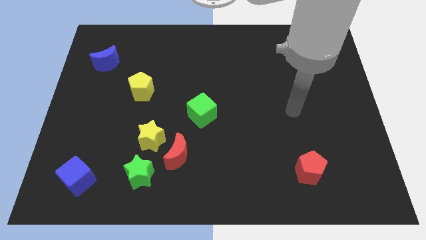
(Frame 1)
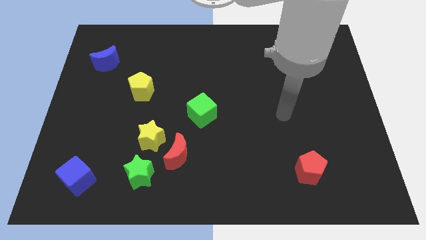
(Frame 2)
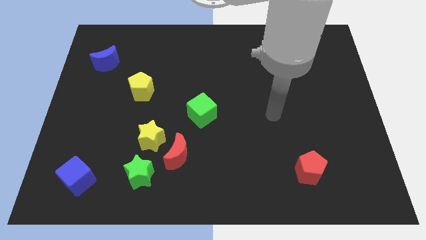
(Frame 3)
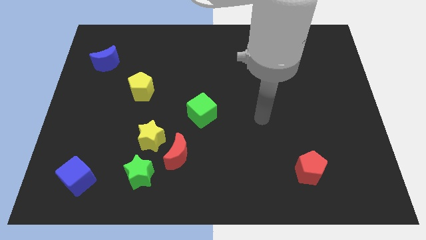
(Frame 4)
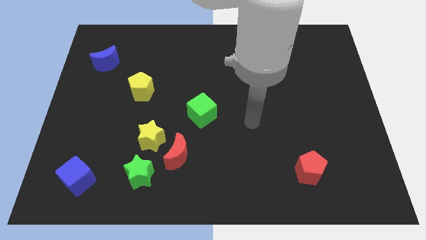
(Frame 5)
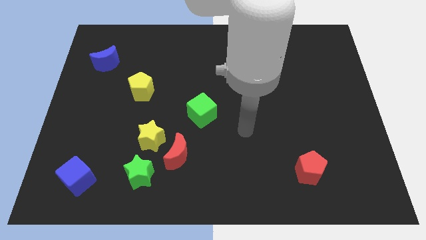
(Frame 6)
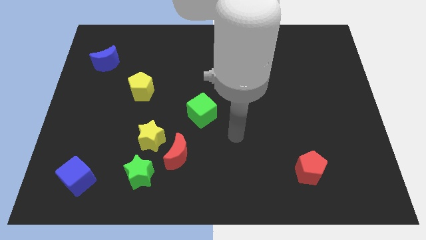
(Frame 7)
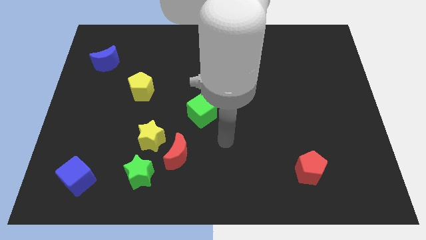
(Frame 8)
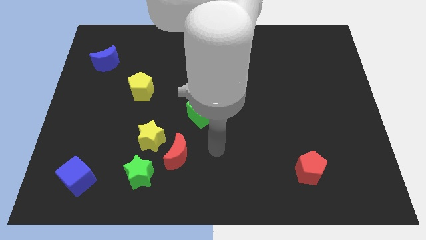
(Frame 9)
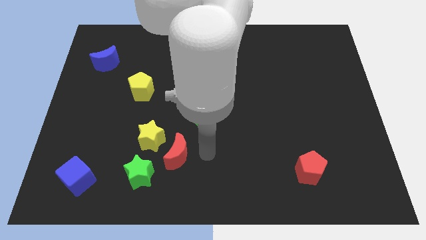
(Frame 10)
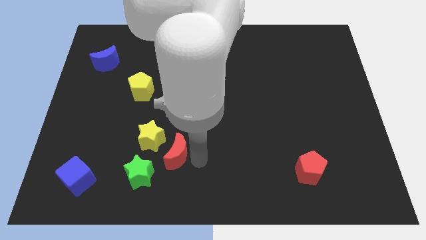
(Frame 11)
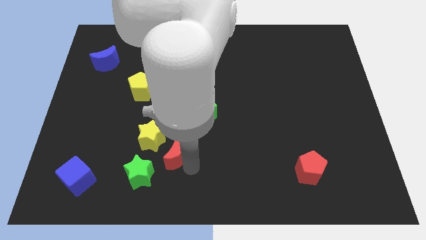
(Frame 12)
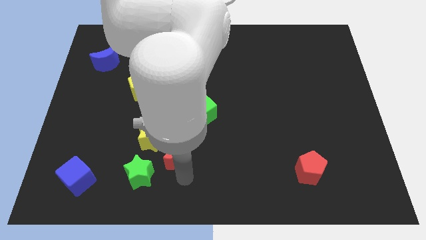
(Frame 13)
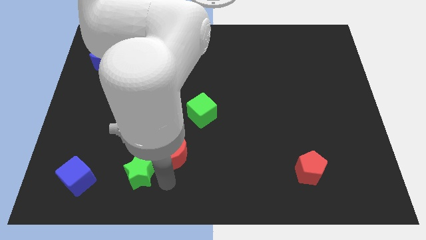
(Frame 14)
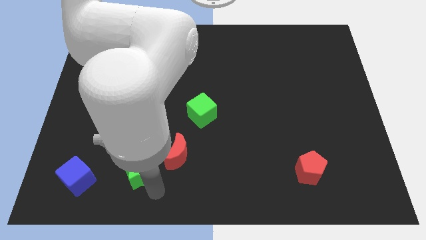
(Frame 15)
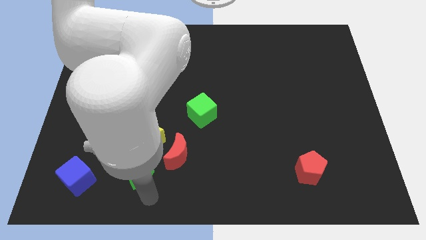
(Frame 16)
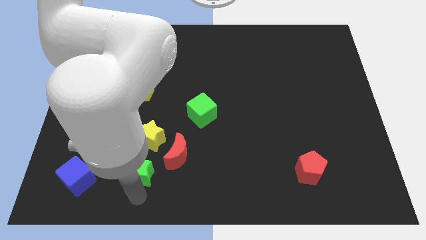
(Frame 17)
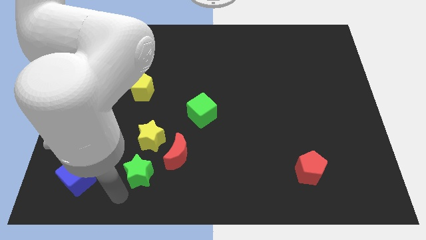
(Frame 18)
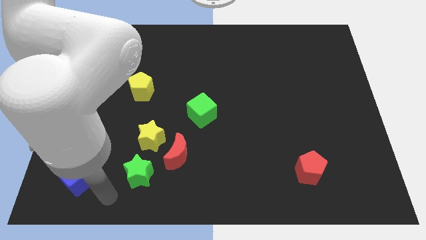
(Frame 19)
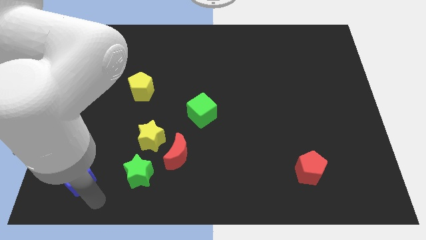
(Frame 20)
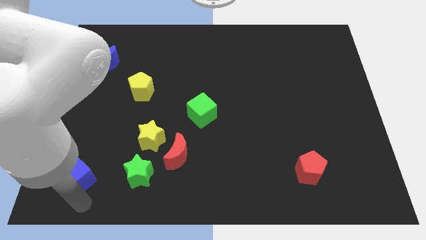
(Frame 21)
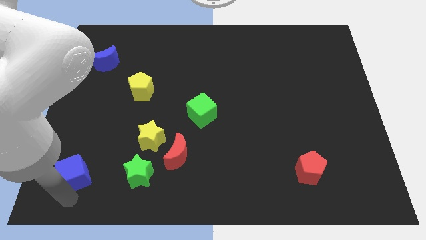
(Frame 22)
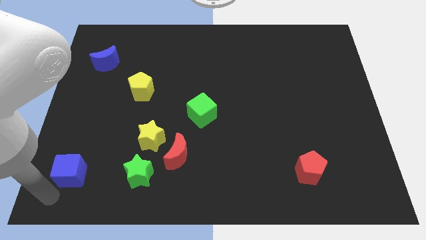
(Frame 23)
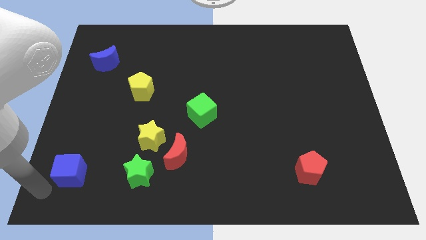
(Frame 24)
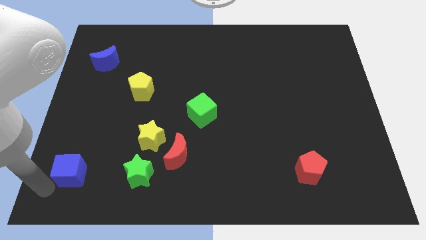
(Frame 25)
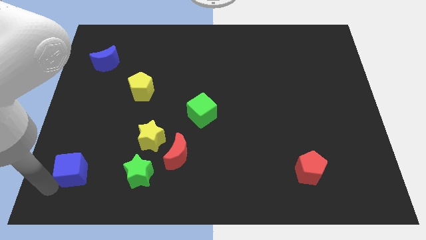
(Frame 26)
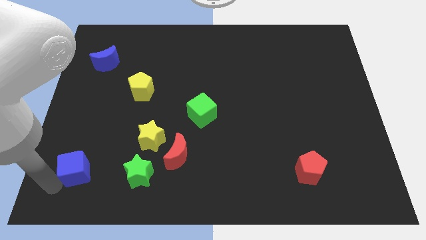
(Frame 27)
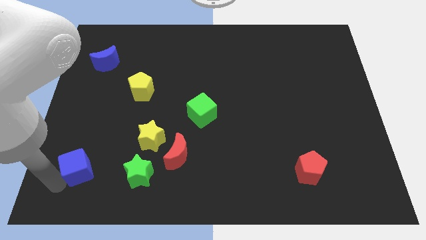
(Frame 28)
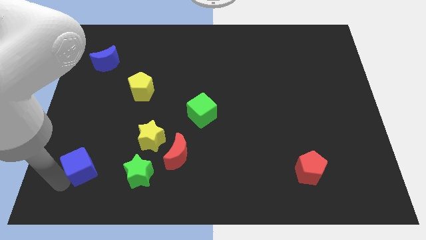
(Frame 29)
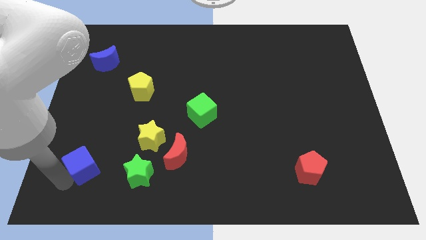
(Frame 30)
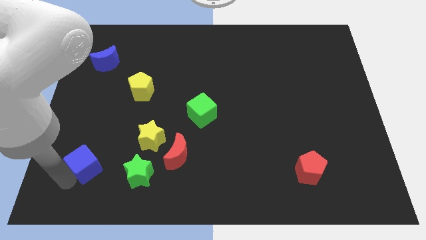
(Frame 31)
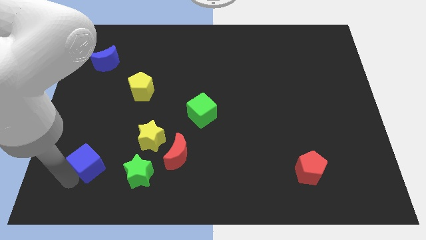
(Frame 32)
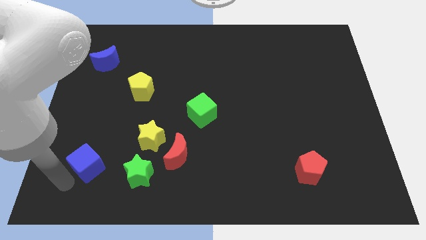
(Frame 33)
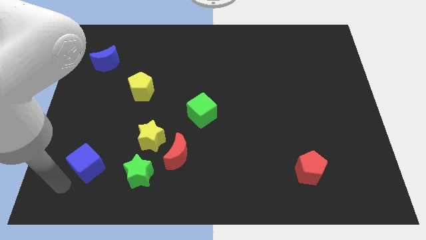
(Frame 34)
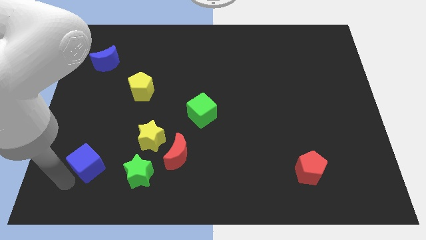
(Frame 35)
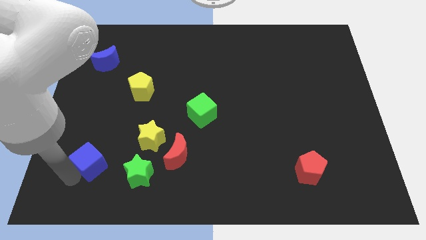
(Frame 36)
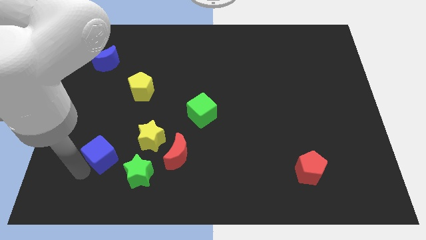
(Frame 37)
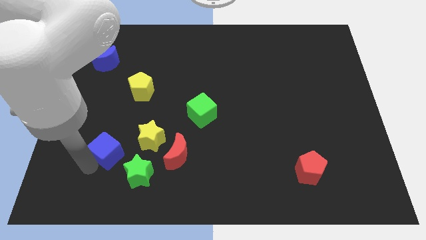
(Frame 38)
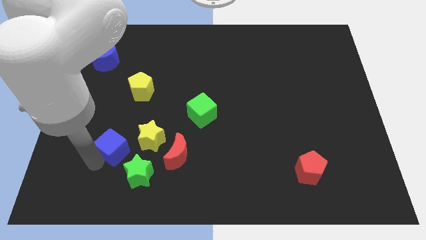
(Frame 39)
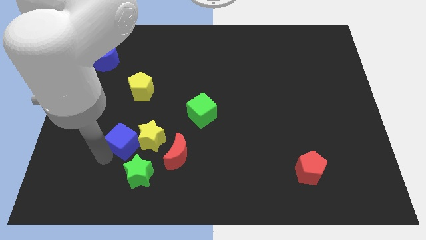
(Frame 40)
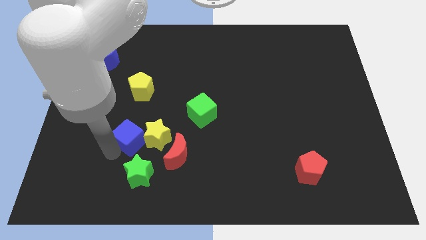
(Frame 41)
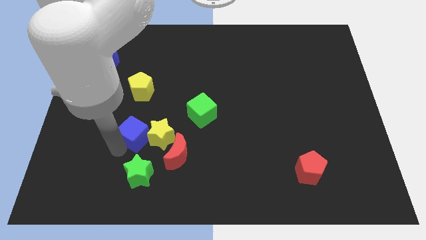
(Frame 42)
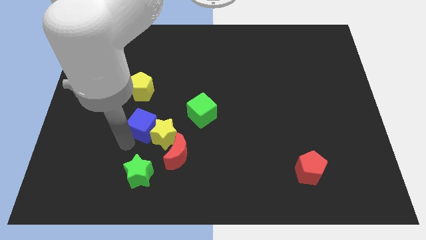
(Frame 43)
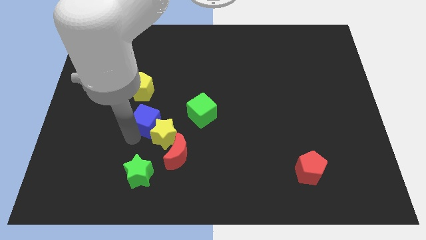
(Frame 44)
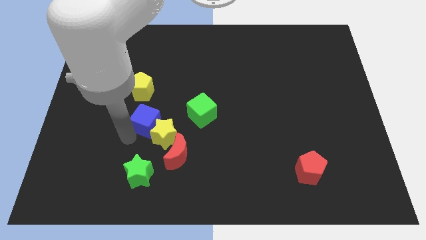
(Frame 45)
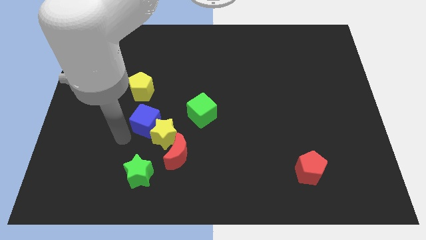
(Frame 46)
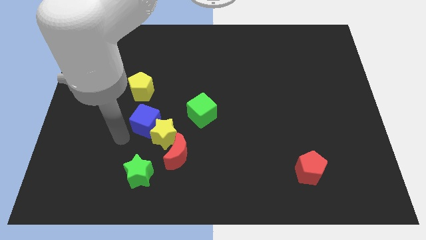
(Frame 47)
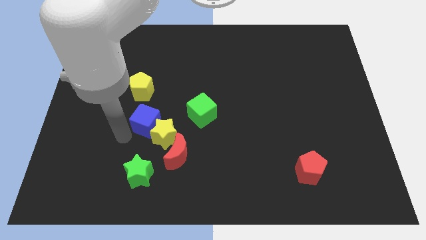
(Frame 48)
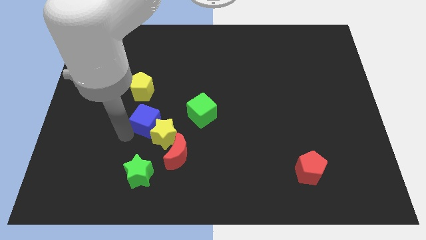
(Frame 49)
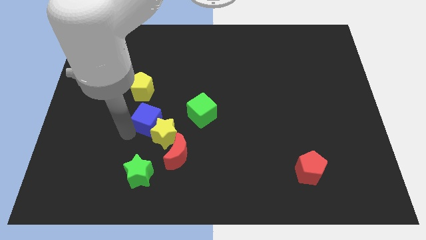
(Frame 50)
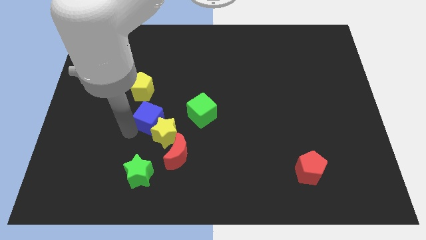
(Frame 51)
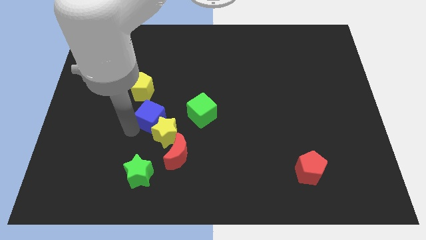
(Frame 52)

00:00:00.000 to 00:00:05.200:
push the blue cube up and then right

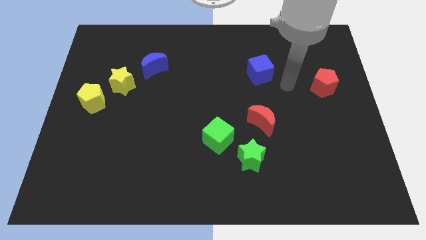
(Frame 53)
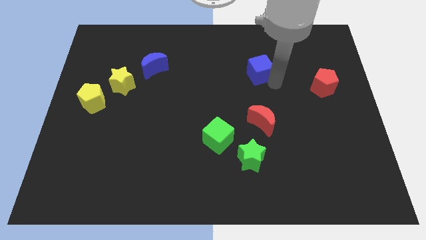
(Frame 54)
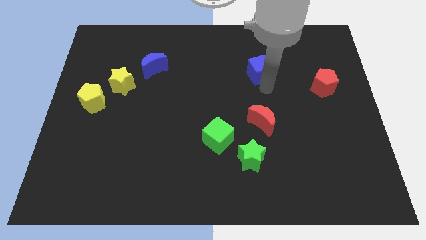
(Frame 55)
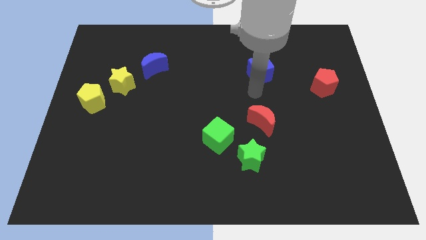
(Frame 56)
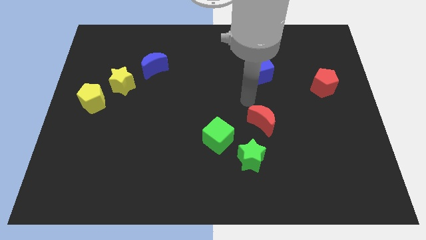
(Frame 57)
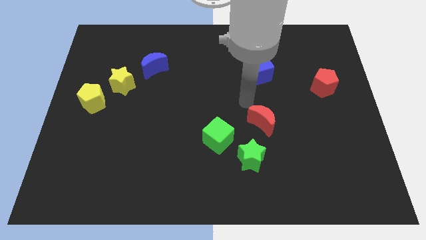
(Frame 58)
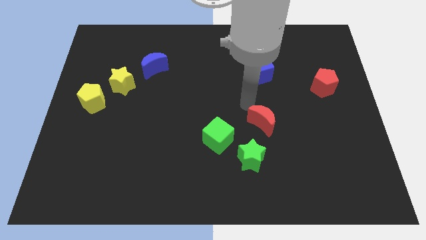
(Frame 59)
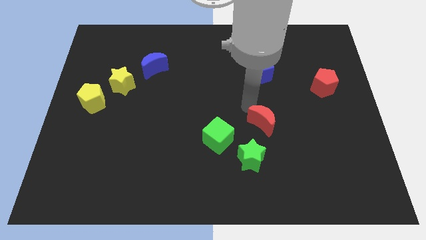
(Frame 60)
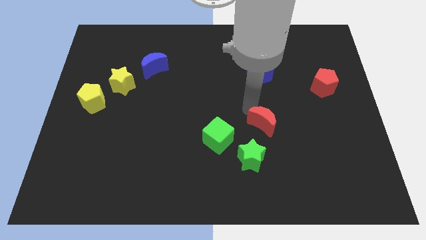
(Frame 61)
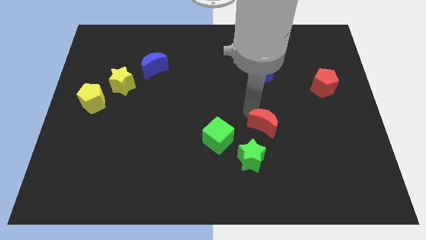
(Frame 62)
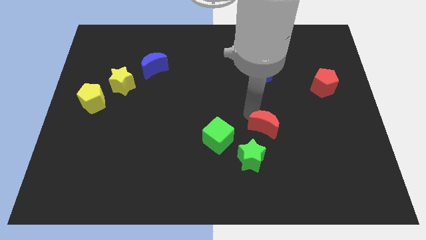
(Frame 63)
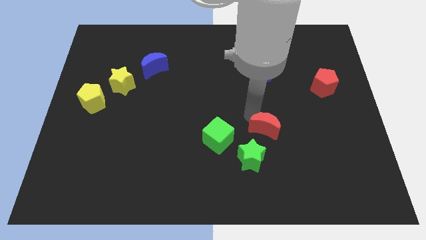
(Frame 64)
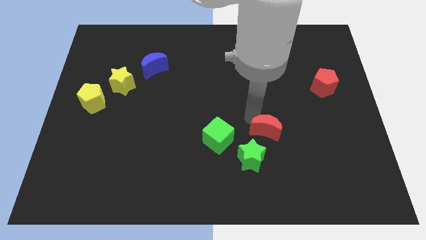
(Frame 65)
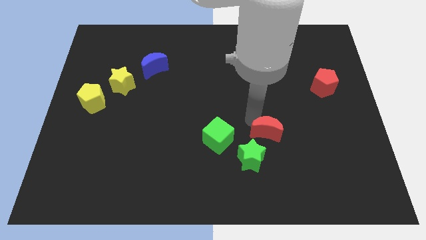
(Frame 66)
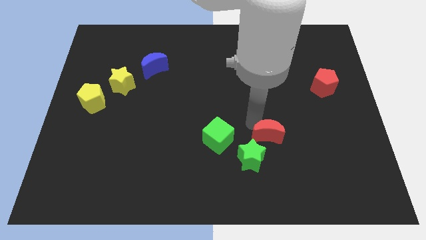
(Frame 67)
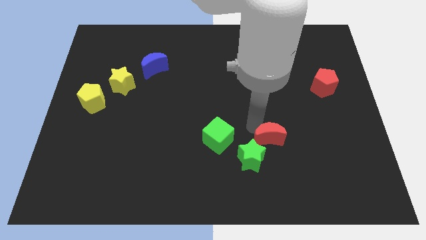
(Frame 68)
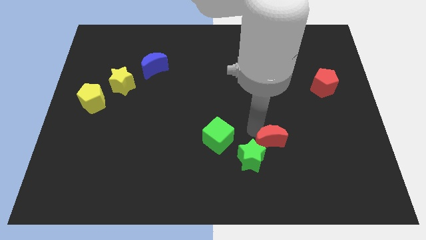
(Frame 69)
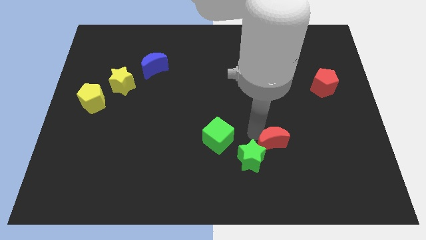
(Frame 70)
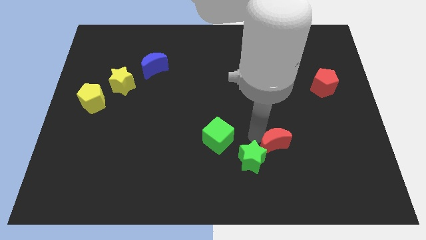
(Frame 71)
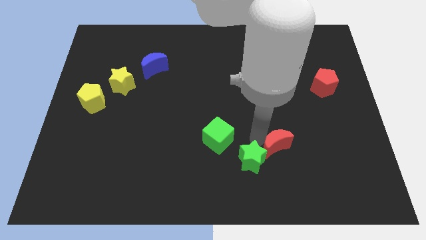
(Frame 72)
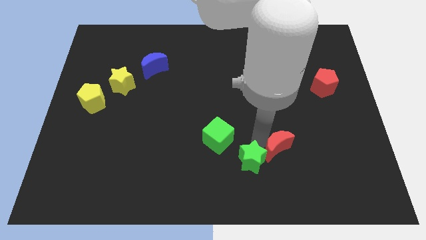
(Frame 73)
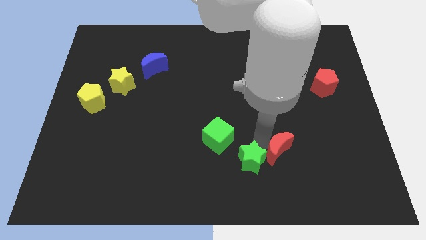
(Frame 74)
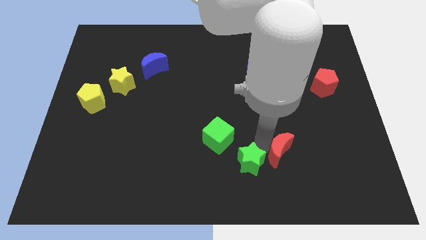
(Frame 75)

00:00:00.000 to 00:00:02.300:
slightly move the red moon downwards and to the right diagonally
